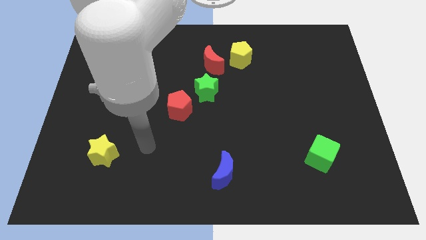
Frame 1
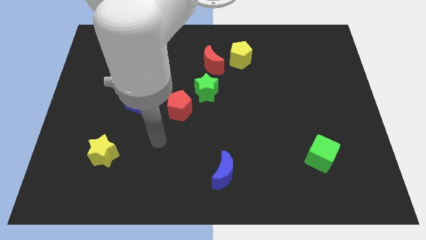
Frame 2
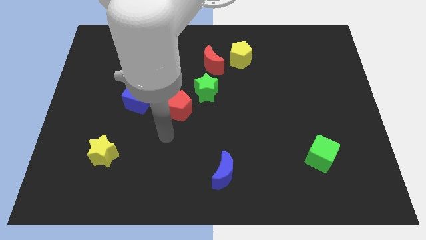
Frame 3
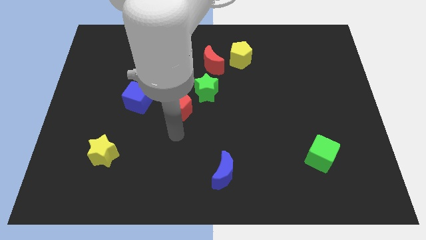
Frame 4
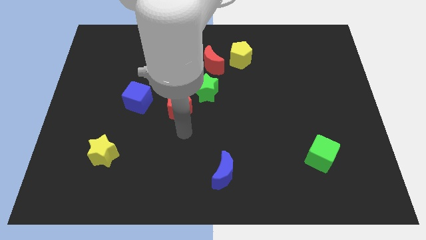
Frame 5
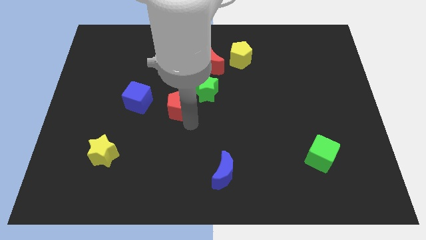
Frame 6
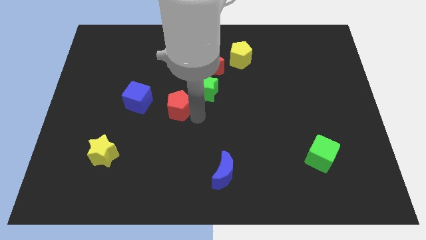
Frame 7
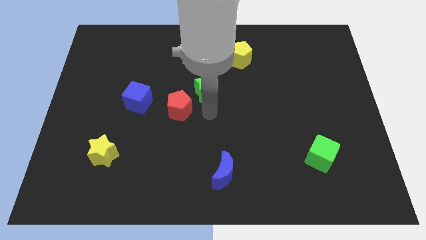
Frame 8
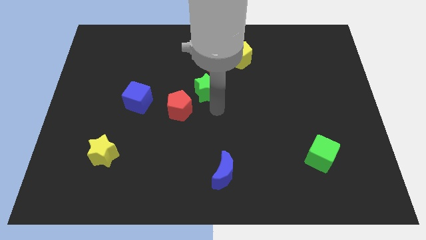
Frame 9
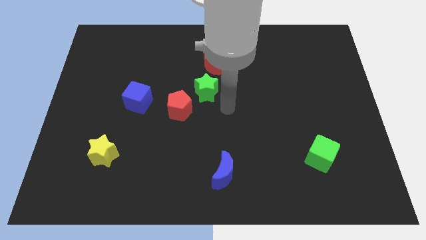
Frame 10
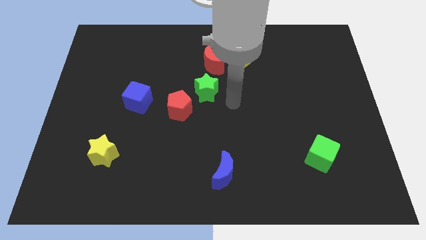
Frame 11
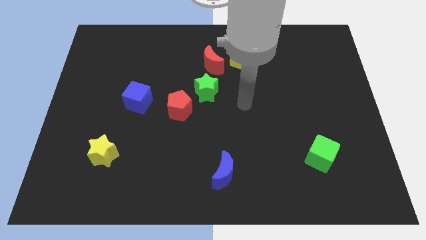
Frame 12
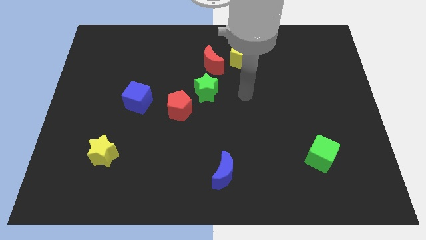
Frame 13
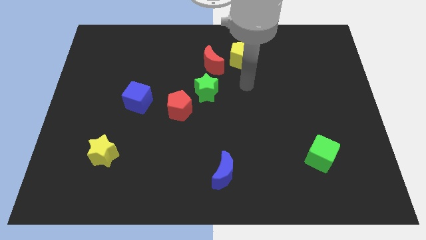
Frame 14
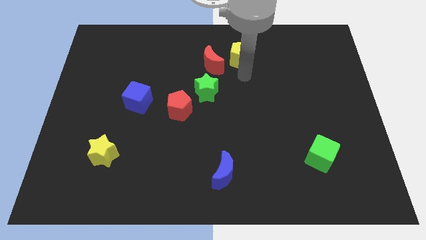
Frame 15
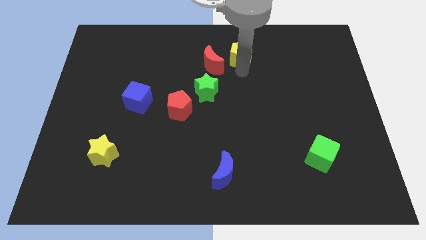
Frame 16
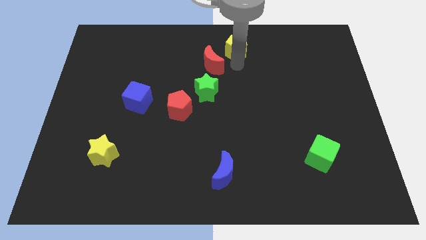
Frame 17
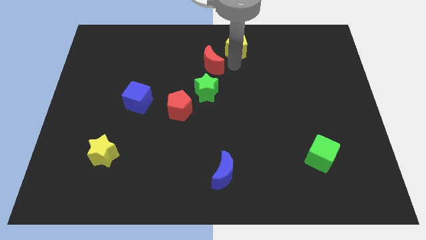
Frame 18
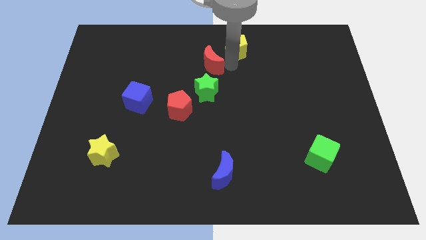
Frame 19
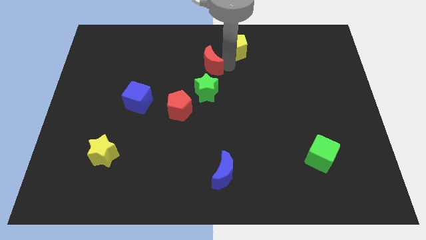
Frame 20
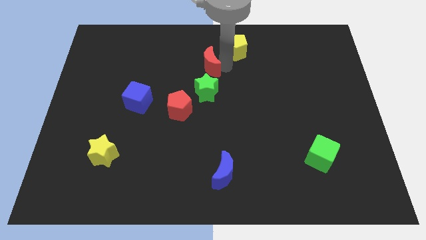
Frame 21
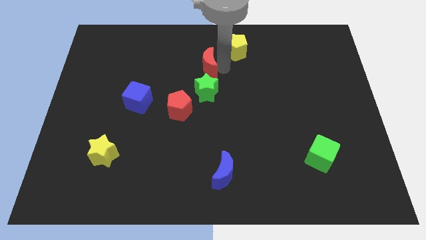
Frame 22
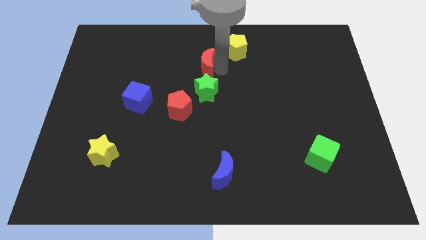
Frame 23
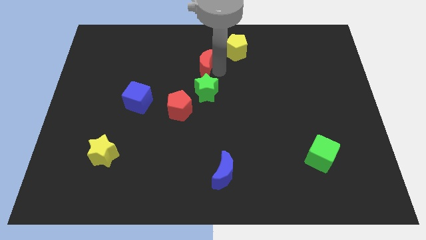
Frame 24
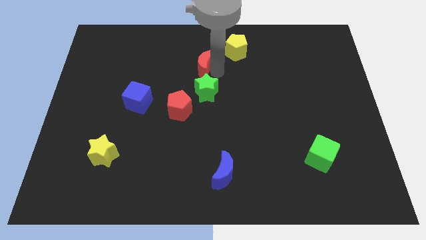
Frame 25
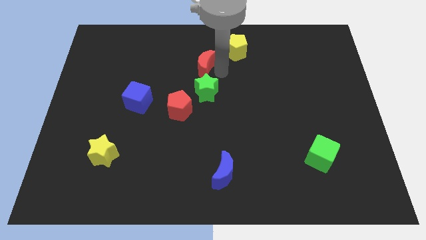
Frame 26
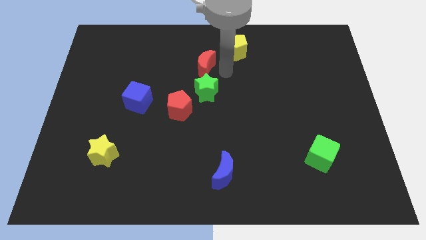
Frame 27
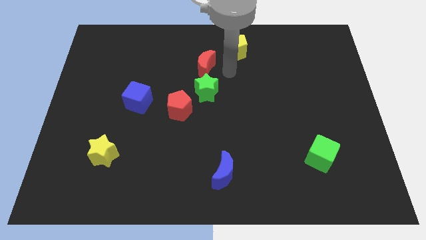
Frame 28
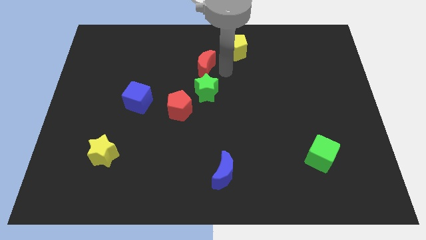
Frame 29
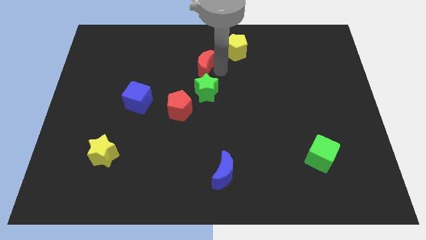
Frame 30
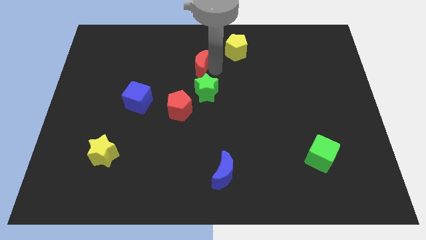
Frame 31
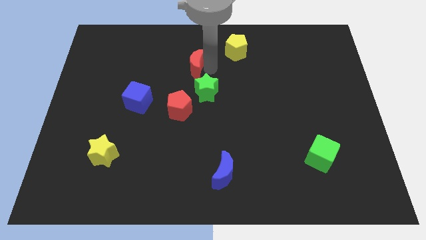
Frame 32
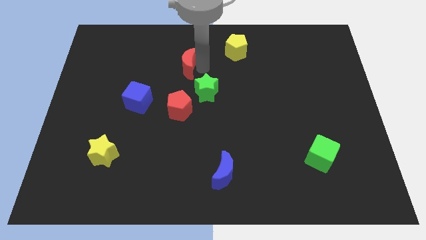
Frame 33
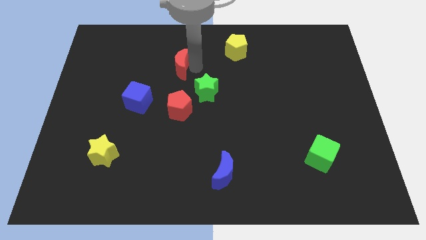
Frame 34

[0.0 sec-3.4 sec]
push the red moon a little to the left

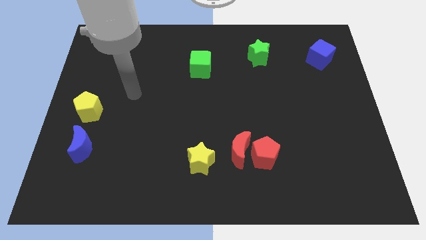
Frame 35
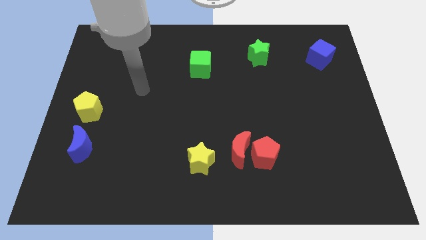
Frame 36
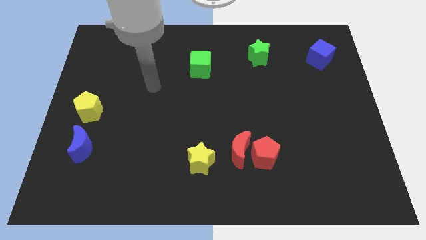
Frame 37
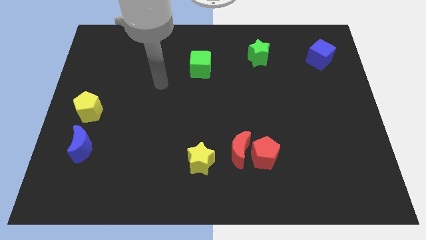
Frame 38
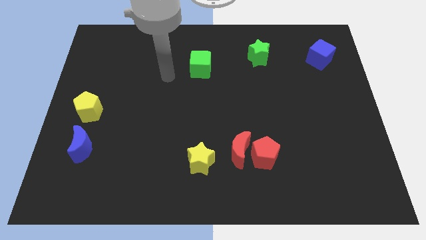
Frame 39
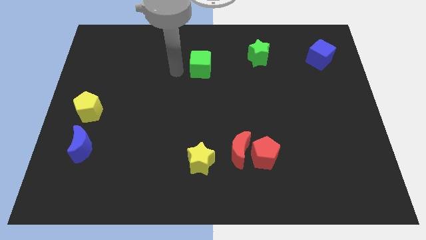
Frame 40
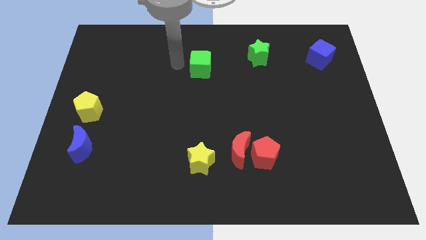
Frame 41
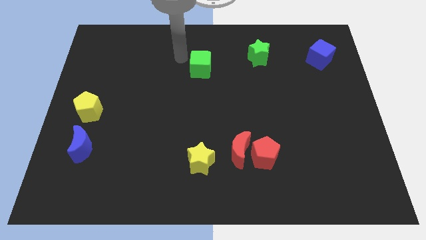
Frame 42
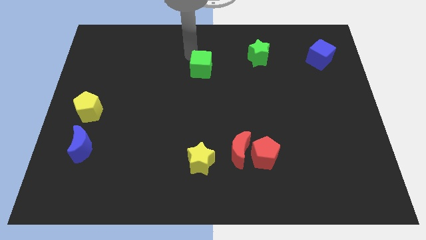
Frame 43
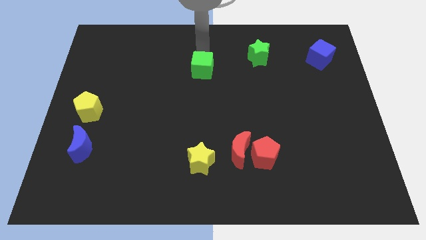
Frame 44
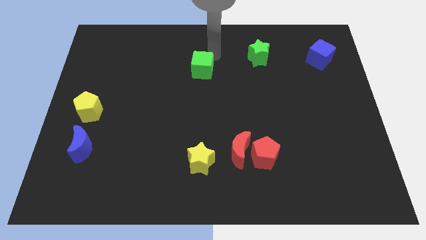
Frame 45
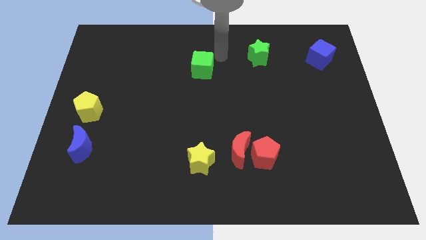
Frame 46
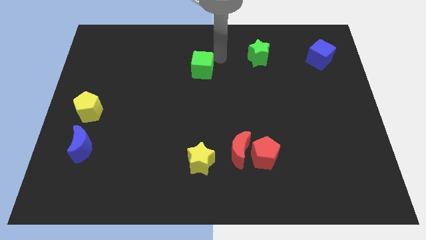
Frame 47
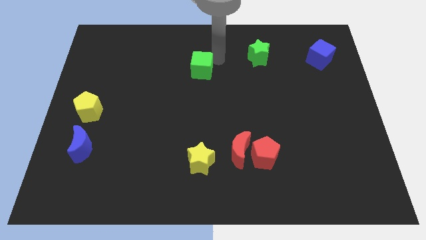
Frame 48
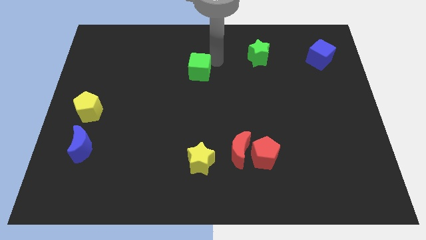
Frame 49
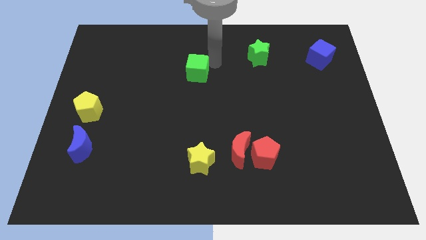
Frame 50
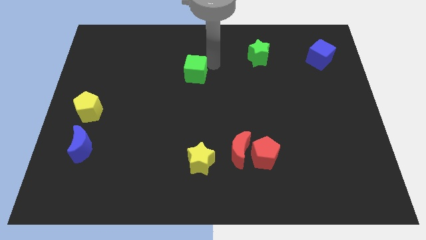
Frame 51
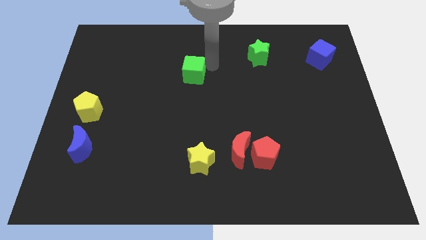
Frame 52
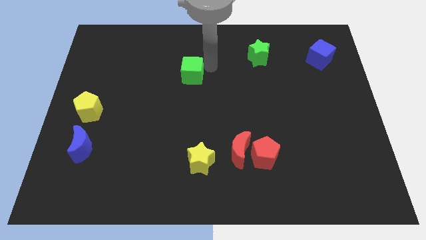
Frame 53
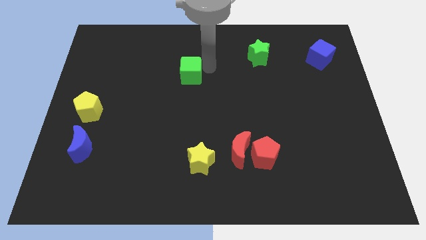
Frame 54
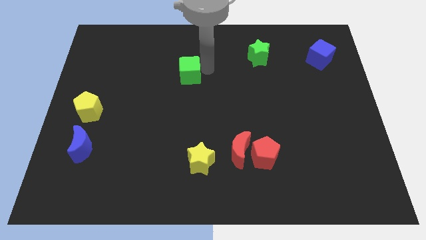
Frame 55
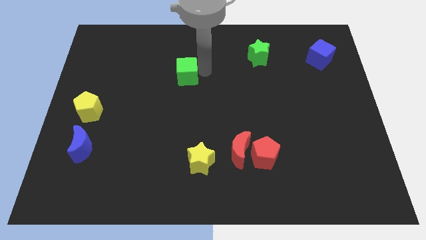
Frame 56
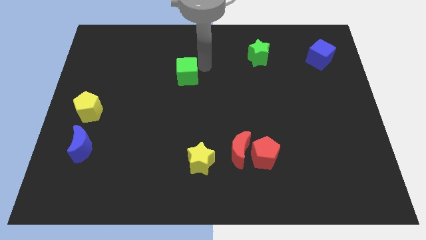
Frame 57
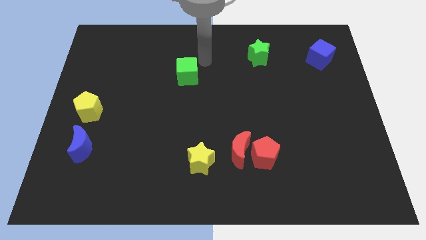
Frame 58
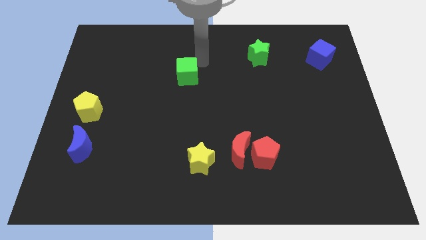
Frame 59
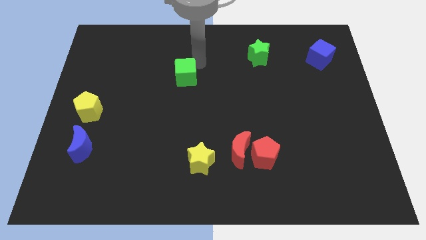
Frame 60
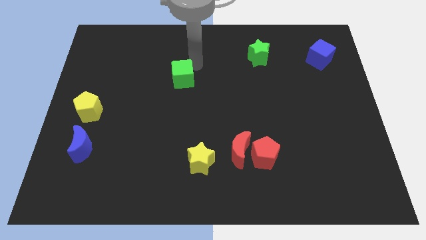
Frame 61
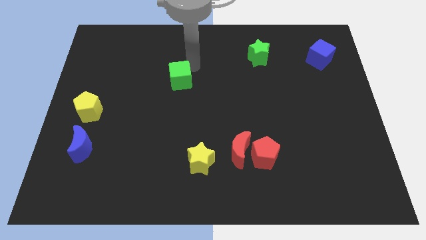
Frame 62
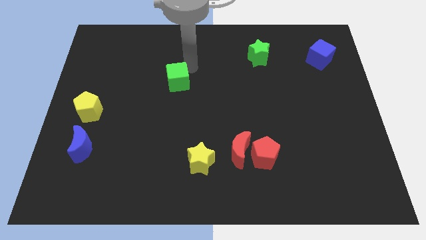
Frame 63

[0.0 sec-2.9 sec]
push the green cube somewhat downwards and left diagonally

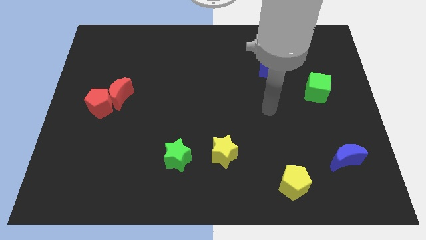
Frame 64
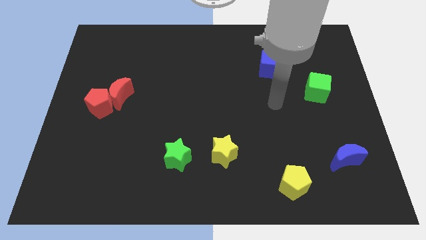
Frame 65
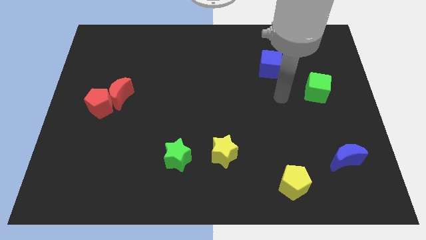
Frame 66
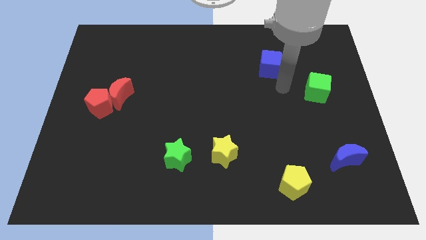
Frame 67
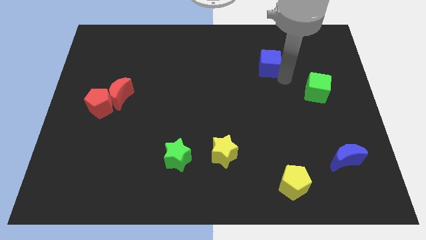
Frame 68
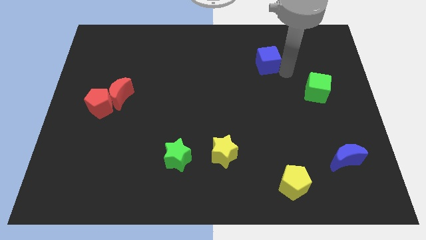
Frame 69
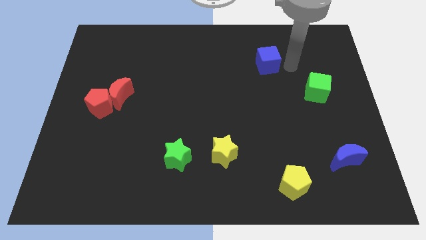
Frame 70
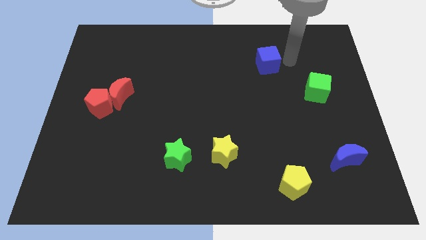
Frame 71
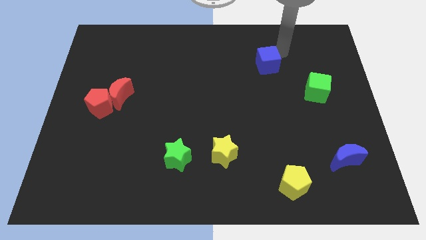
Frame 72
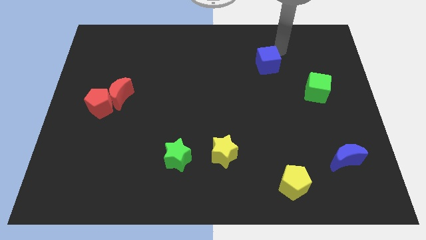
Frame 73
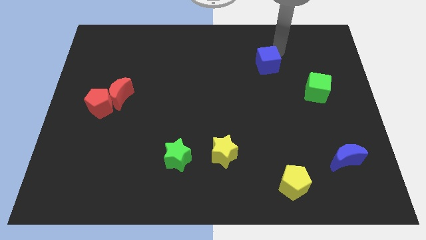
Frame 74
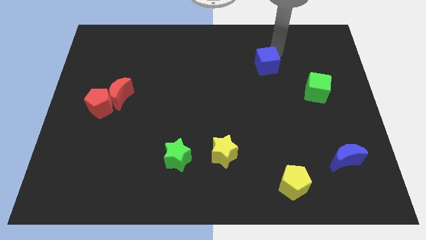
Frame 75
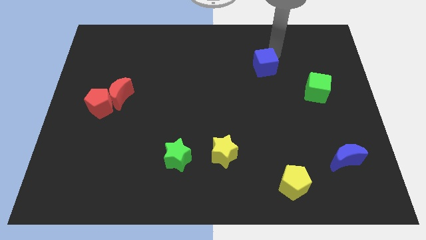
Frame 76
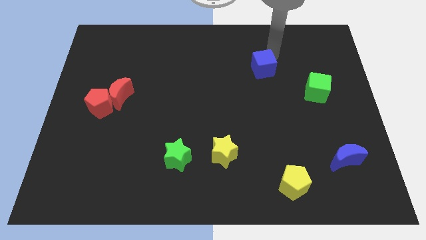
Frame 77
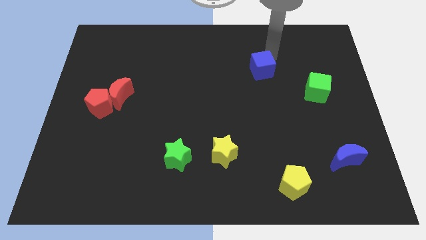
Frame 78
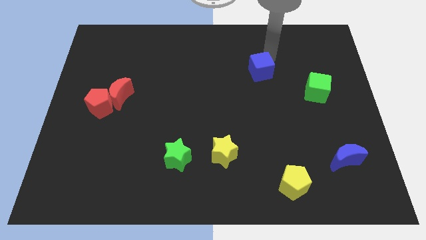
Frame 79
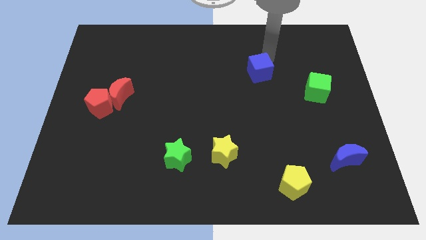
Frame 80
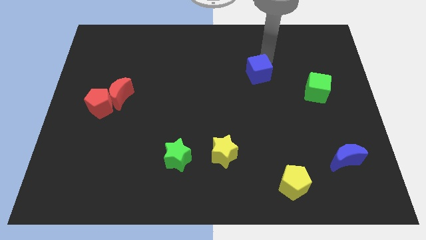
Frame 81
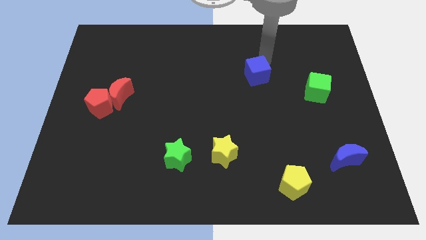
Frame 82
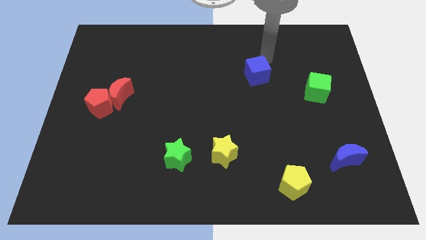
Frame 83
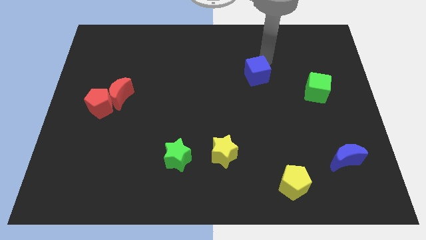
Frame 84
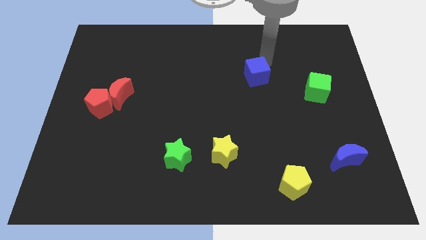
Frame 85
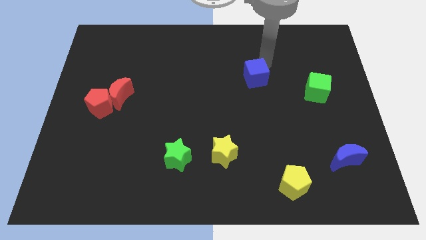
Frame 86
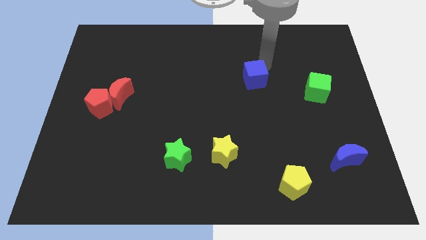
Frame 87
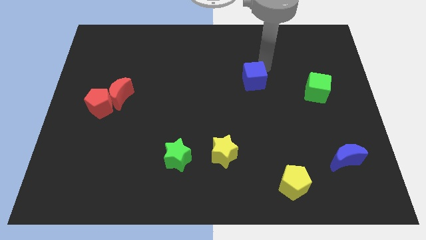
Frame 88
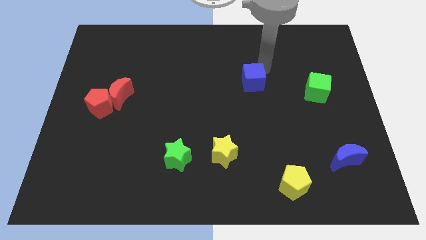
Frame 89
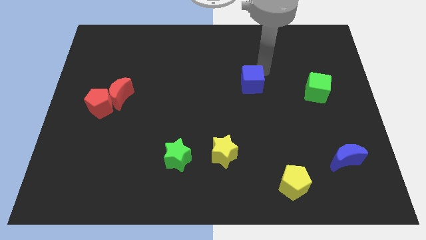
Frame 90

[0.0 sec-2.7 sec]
slide the blue cube diagonally down and to the left slightly
